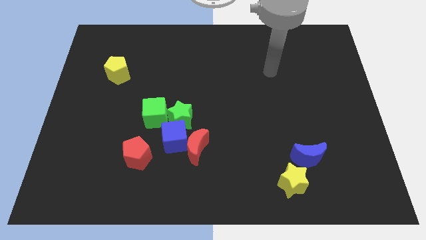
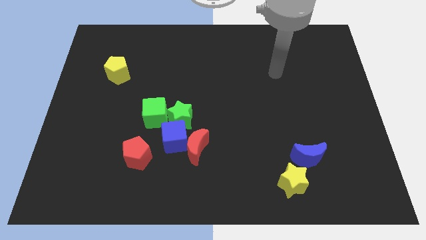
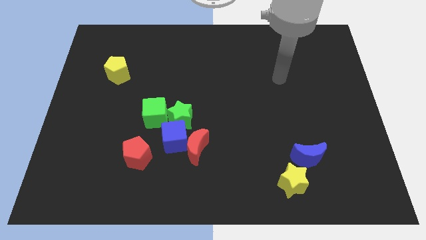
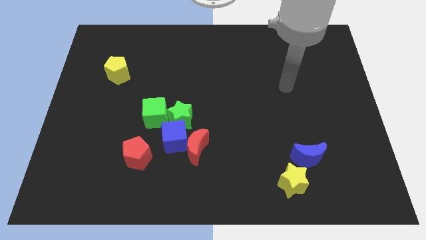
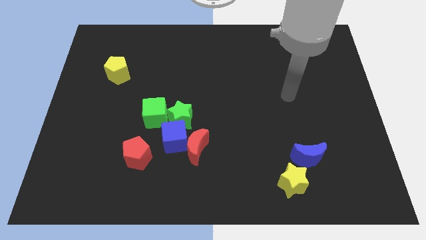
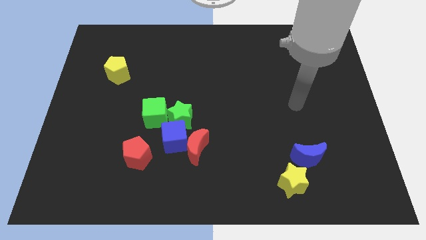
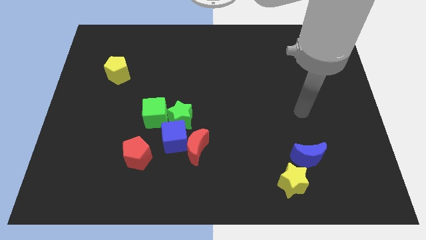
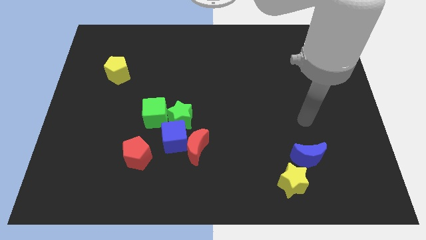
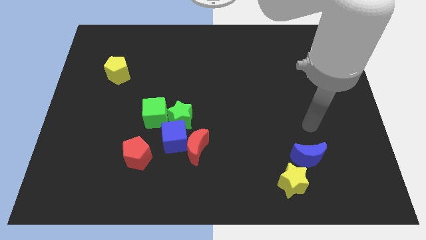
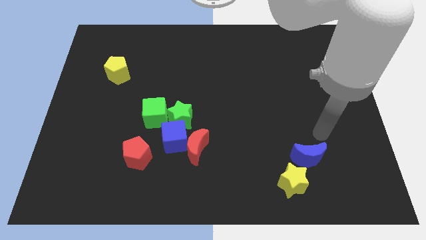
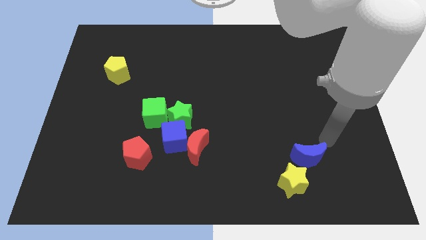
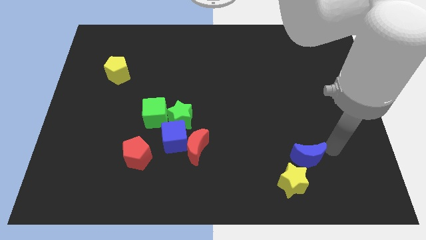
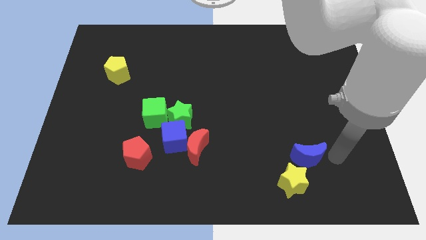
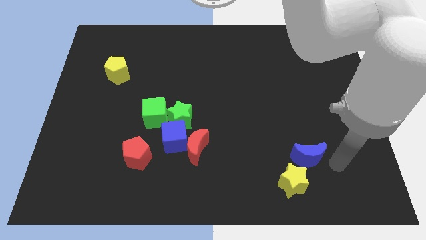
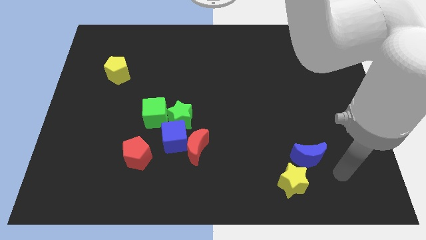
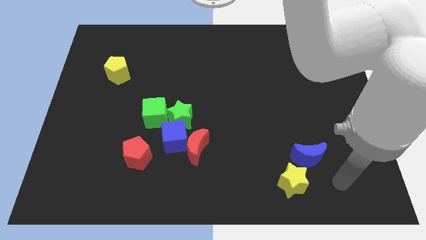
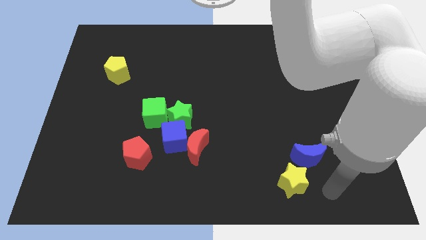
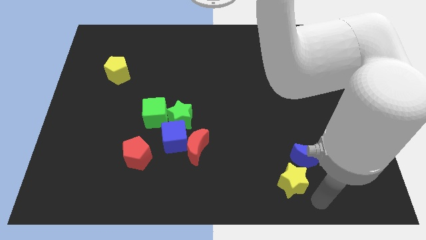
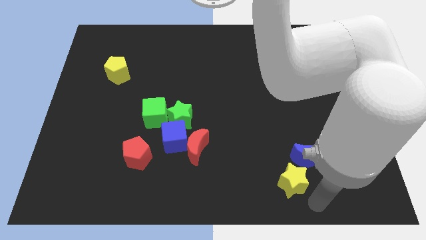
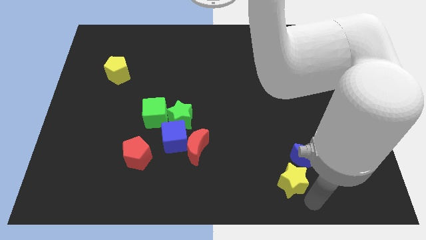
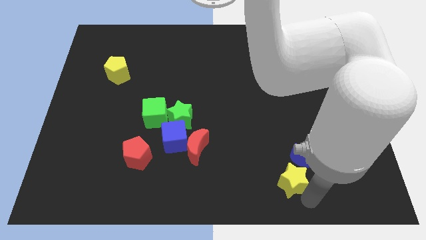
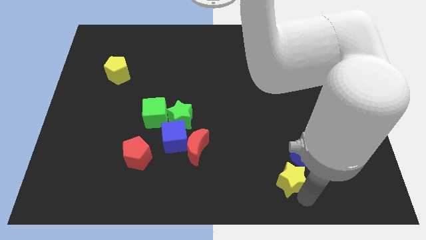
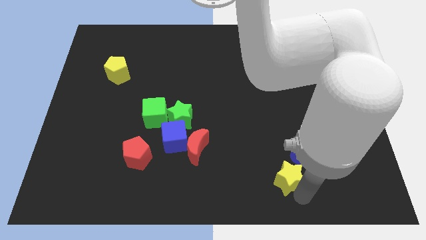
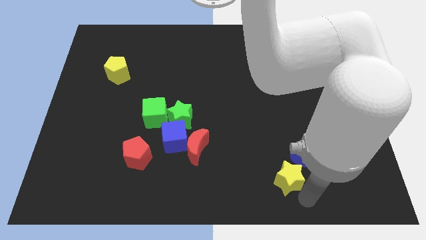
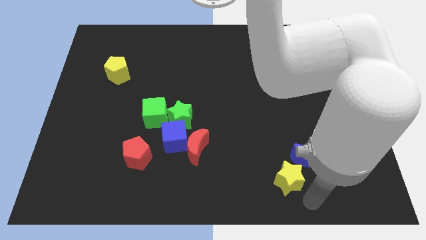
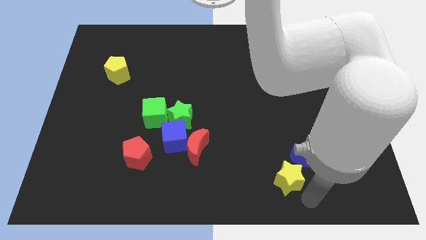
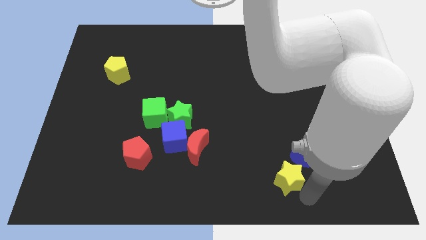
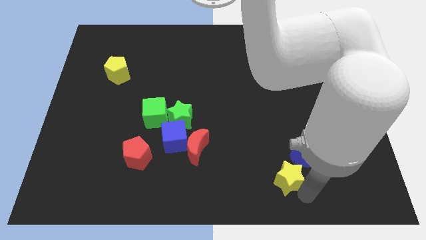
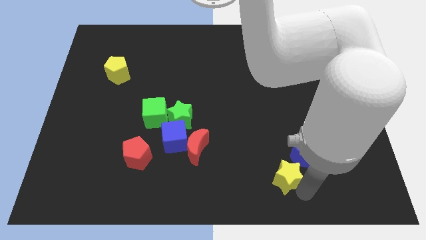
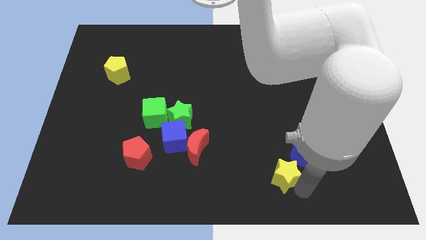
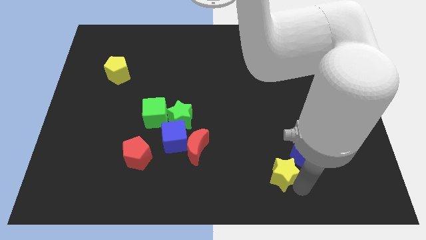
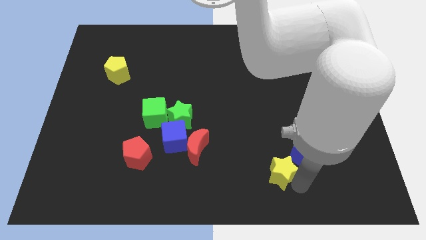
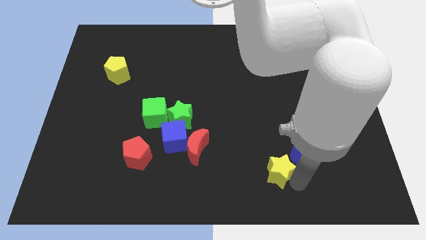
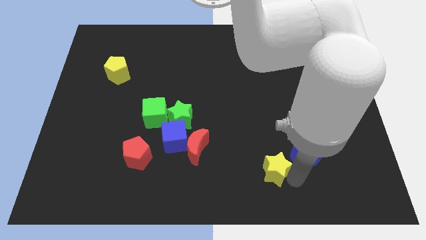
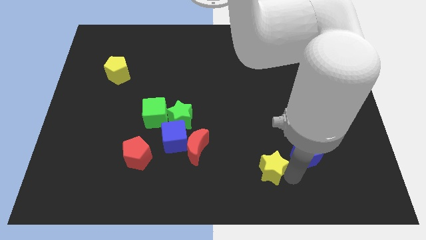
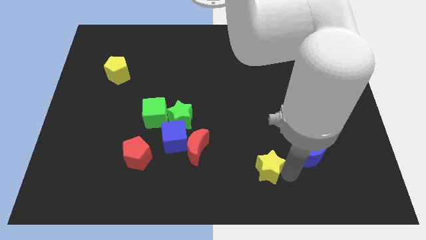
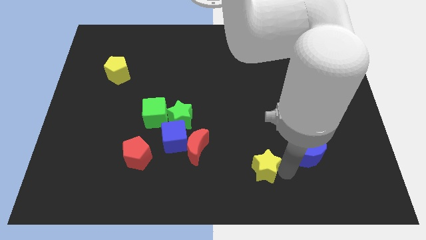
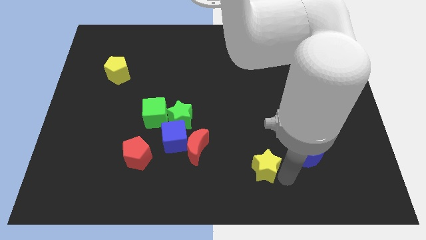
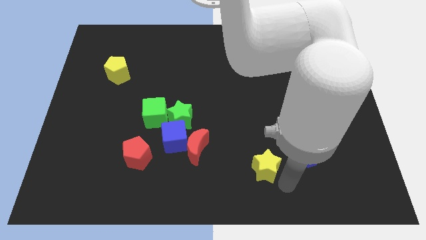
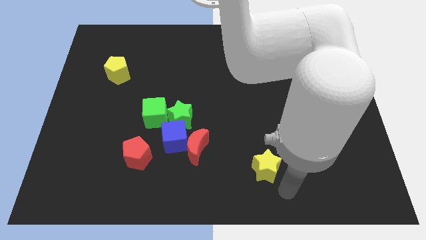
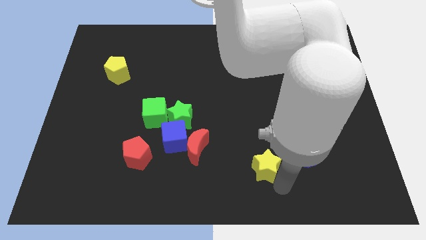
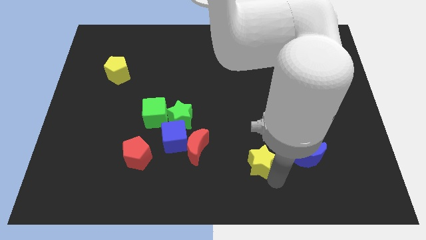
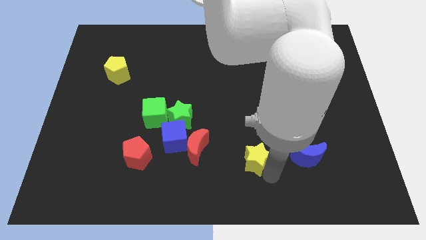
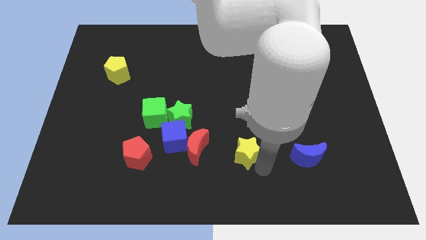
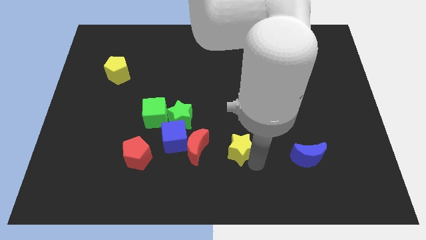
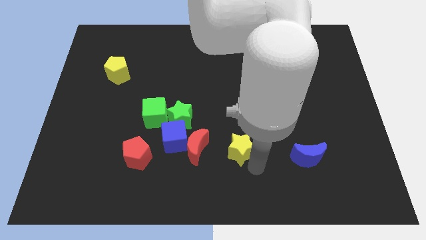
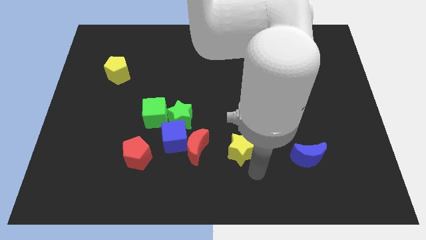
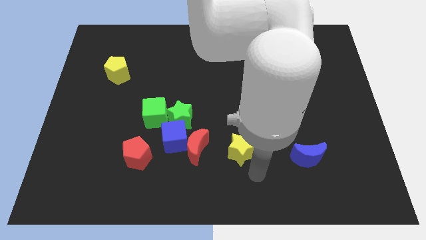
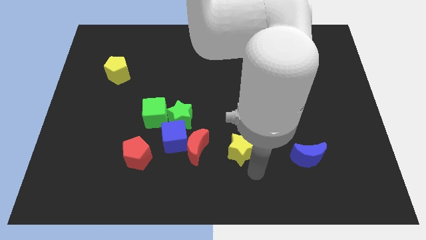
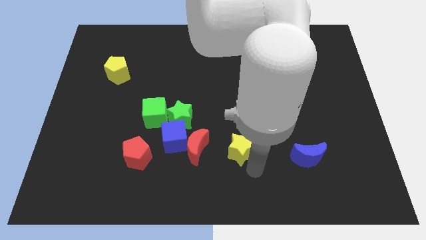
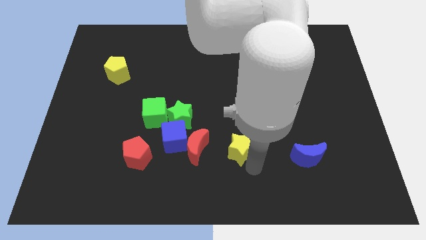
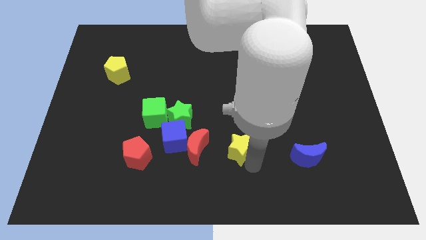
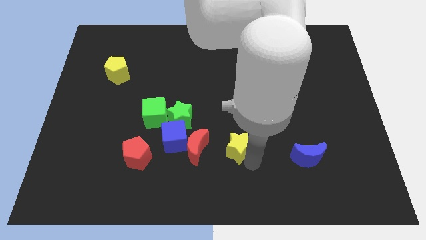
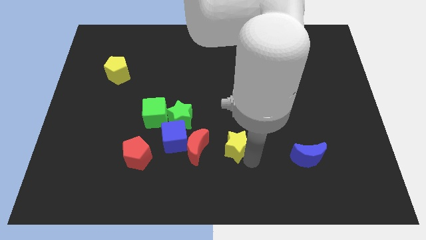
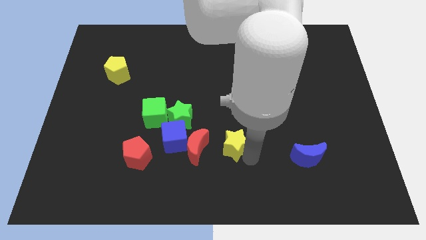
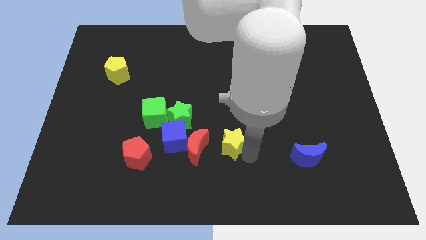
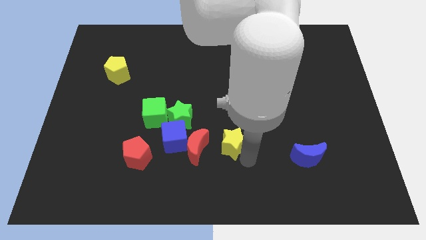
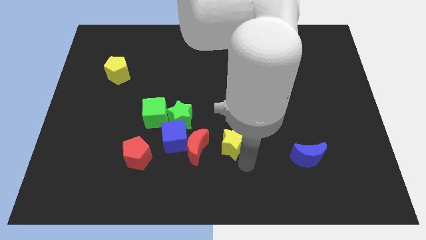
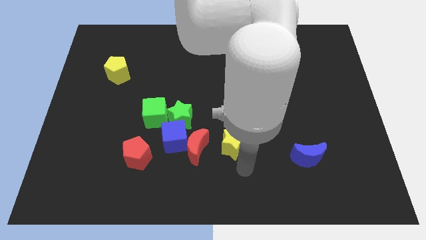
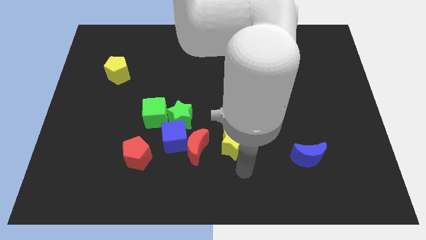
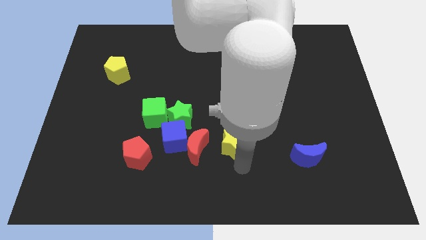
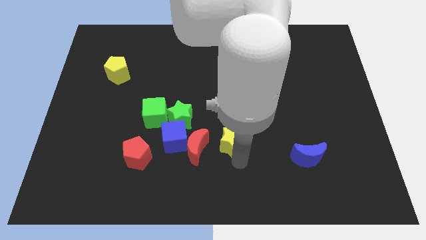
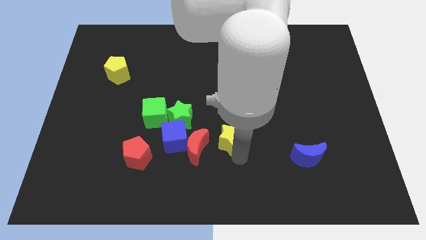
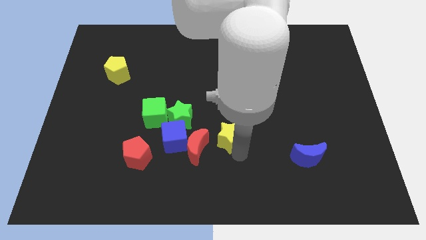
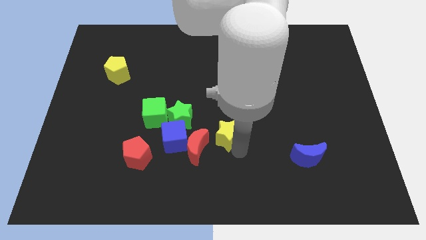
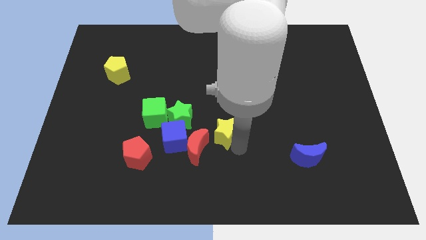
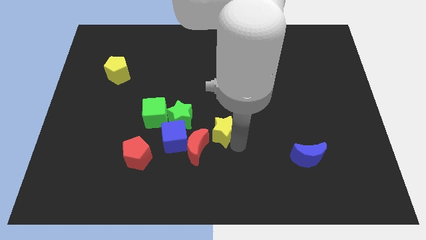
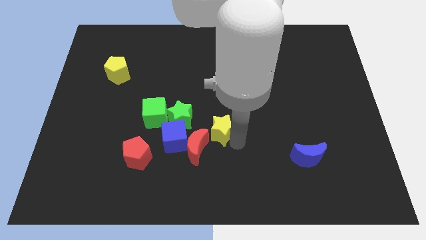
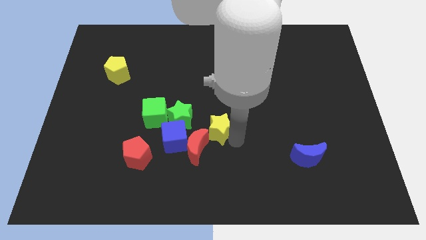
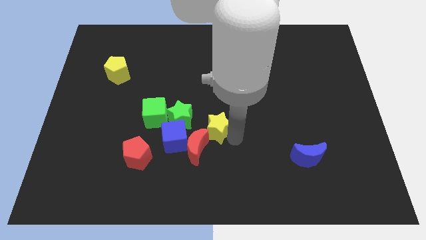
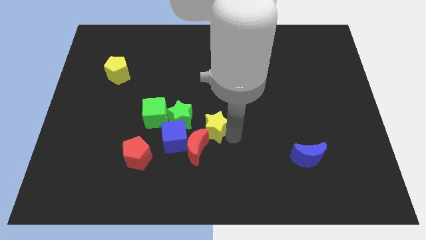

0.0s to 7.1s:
push the yellow star diagonally upwards and left

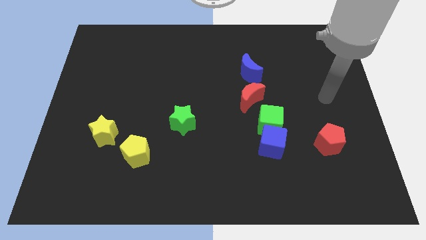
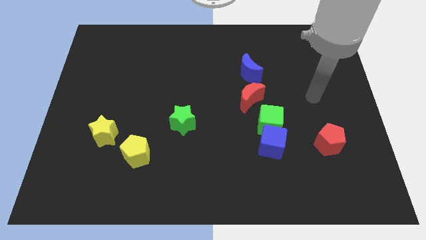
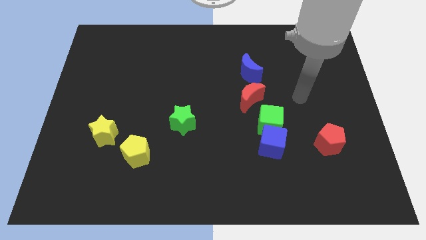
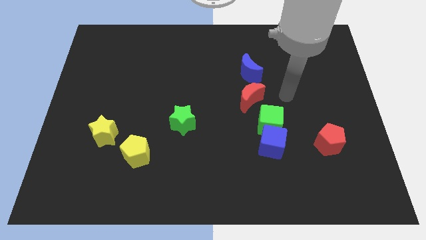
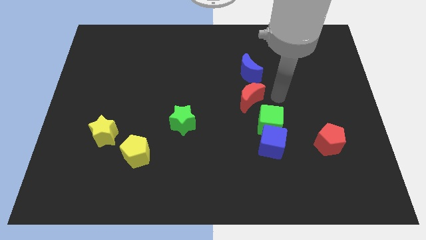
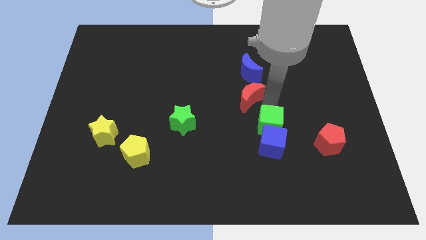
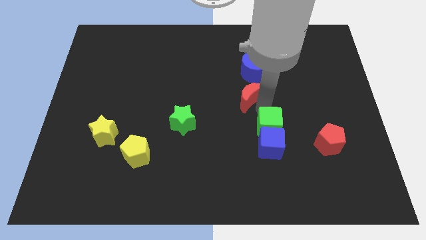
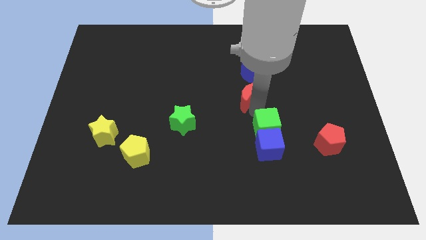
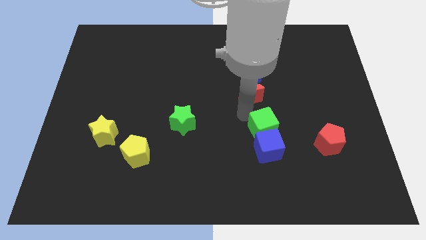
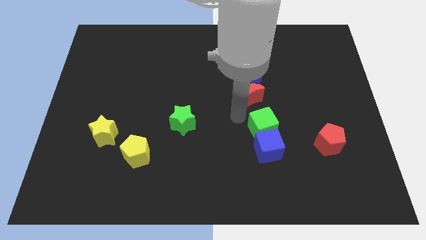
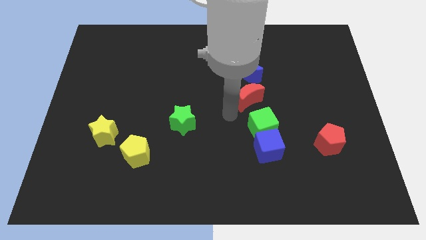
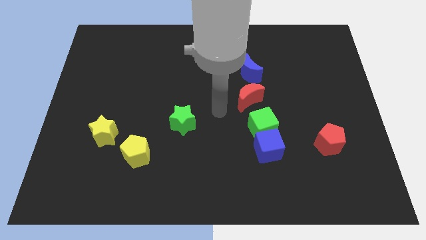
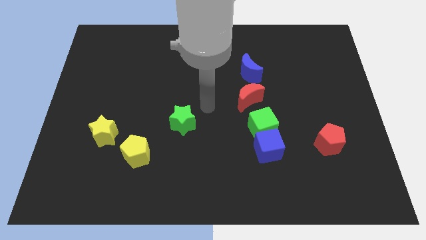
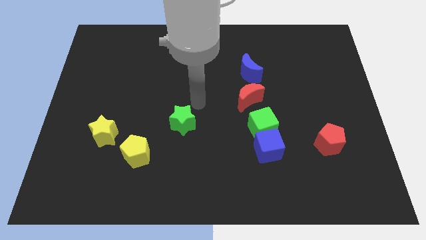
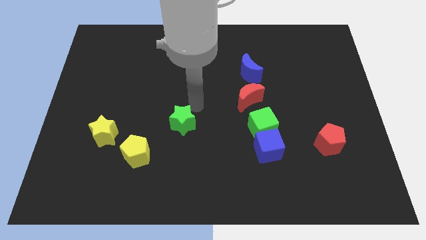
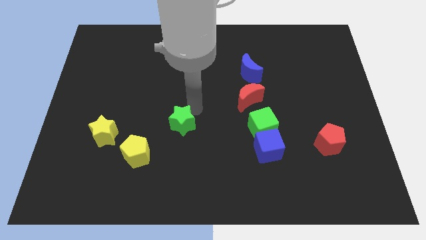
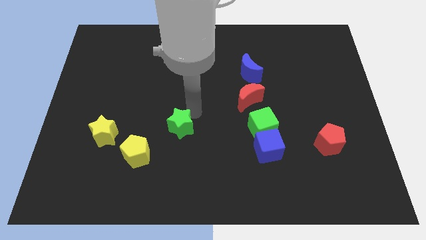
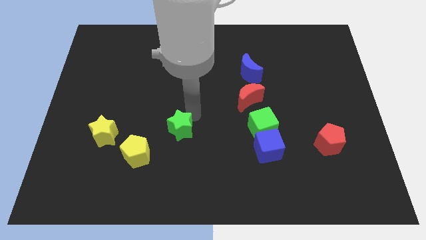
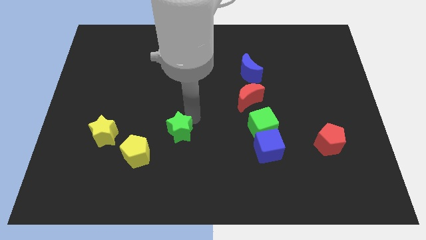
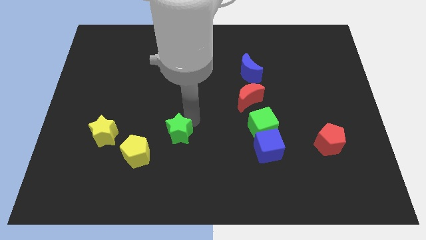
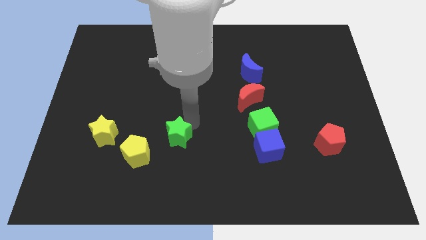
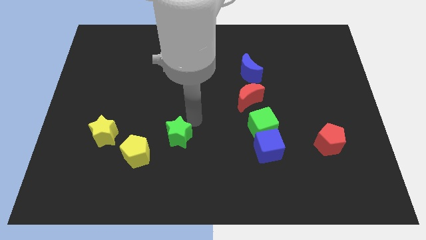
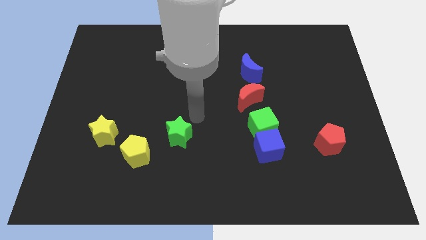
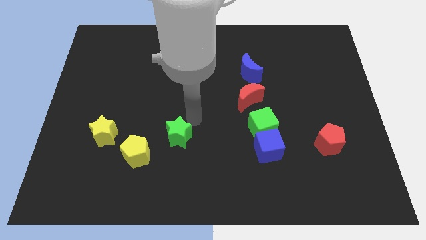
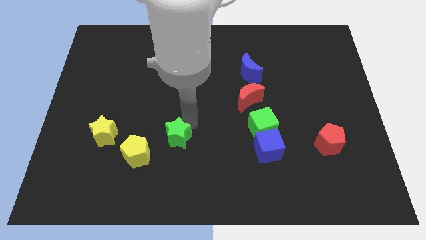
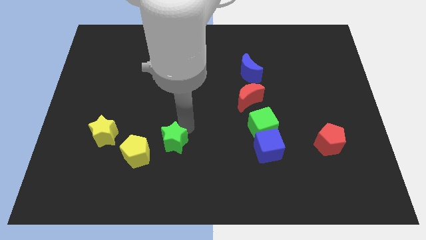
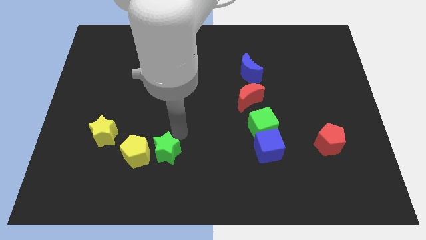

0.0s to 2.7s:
slide the green star a little diagonally down and to the left
